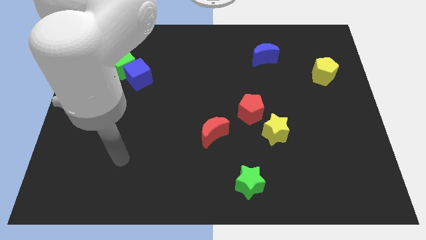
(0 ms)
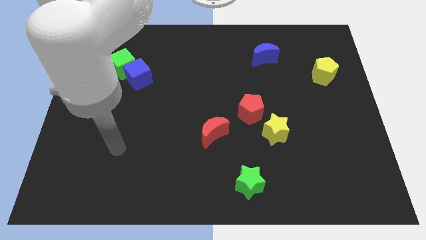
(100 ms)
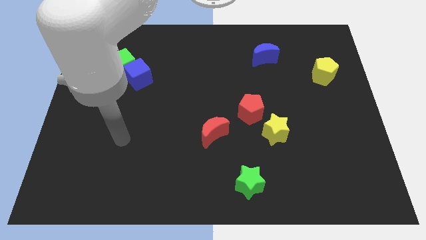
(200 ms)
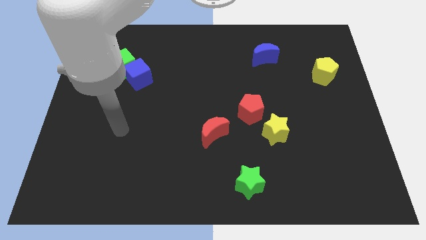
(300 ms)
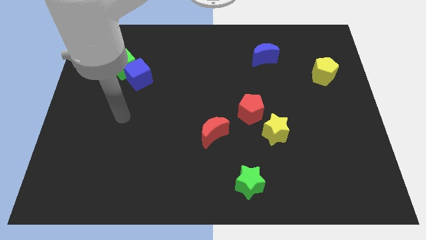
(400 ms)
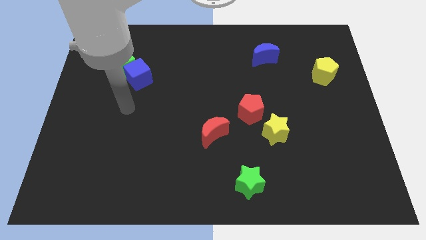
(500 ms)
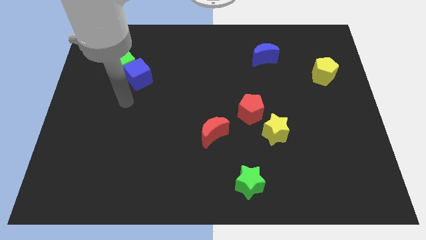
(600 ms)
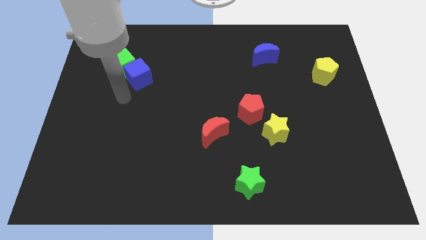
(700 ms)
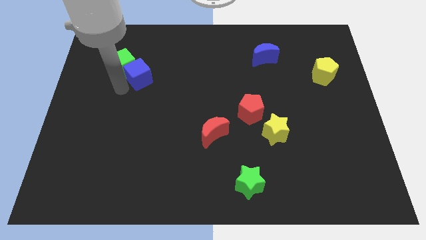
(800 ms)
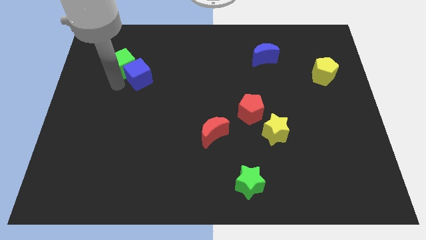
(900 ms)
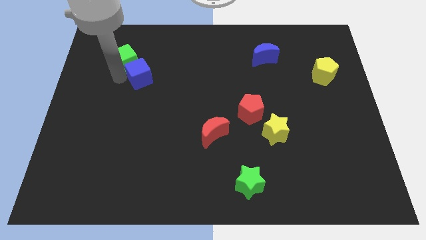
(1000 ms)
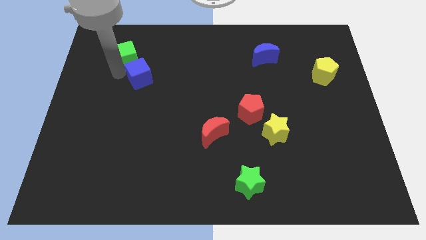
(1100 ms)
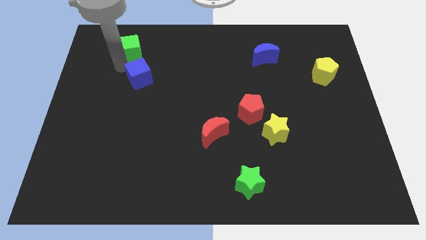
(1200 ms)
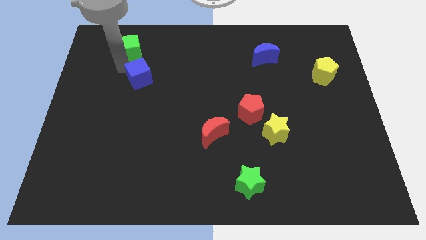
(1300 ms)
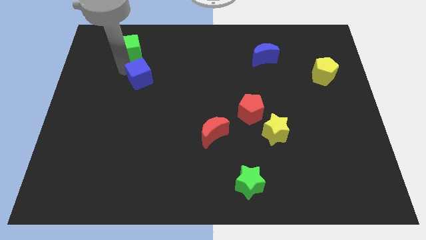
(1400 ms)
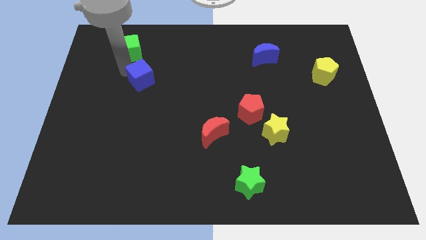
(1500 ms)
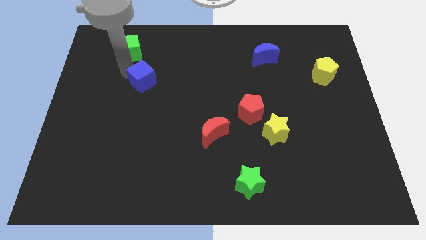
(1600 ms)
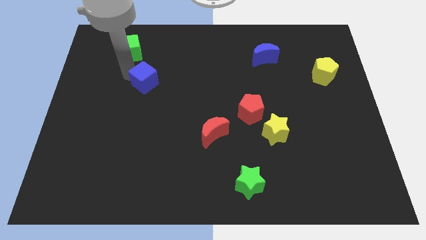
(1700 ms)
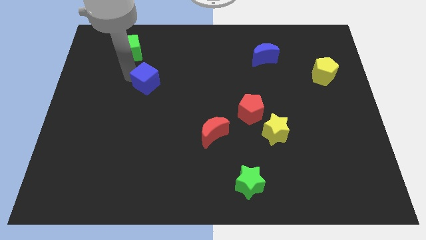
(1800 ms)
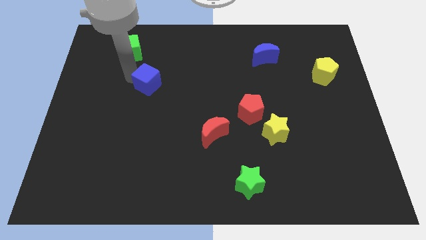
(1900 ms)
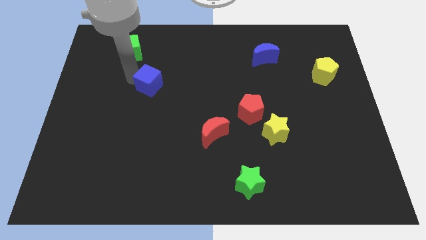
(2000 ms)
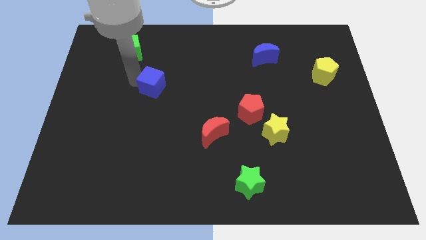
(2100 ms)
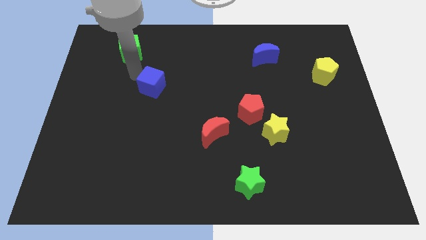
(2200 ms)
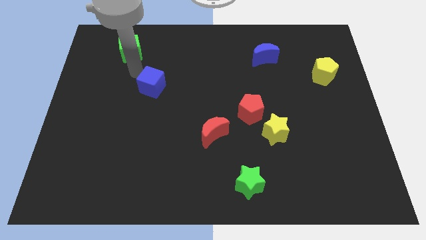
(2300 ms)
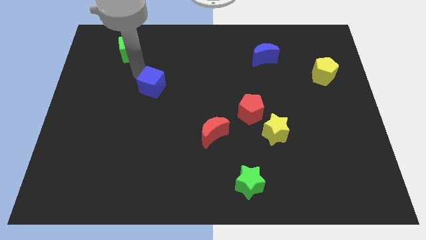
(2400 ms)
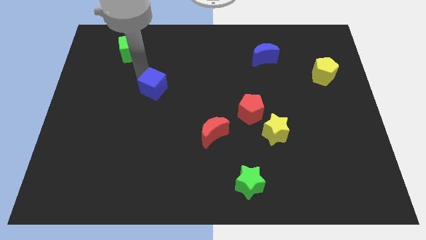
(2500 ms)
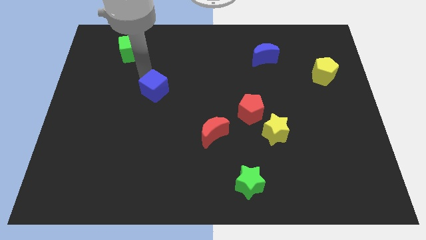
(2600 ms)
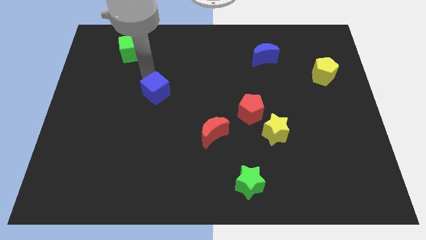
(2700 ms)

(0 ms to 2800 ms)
slightly slide the blue cube downwards and right

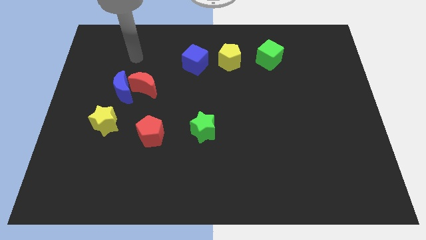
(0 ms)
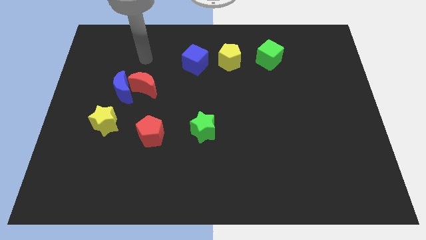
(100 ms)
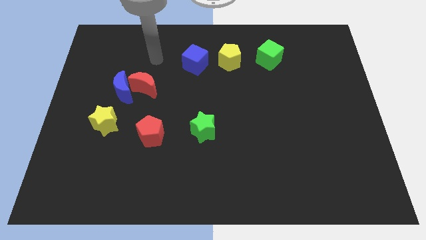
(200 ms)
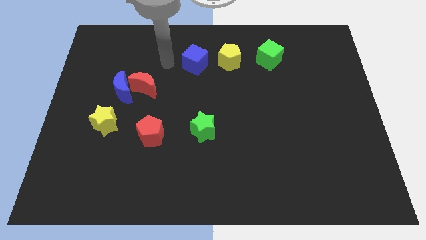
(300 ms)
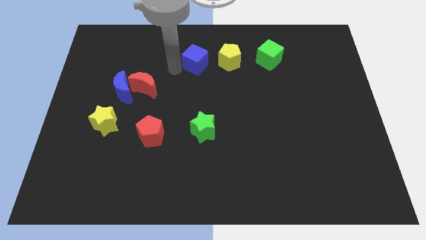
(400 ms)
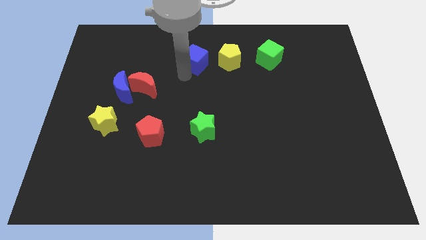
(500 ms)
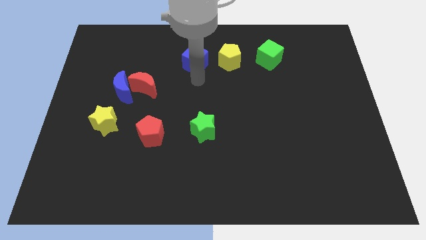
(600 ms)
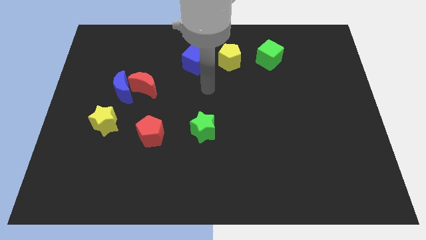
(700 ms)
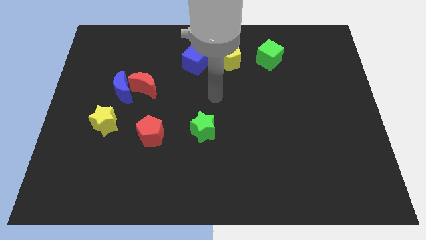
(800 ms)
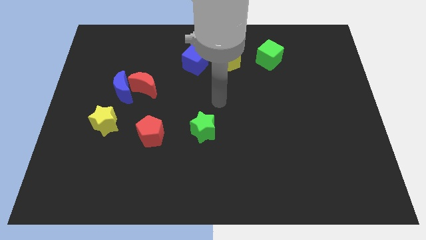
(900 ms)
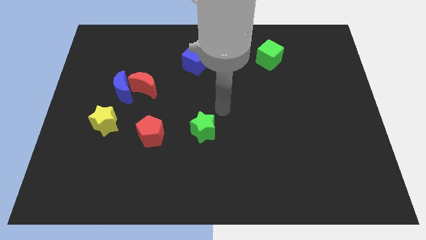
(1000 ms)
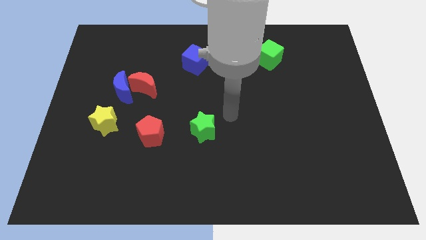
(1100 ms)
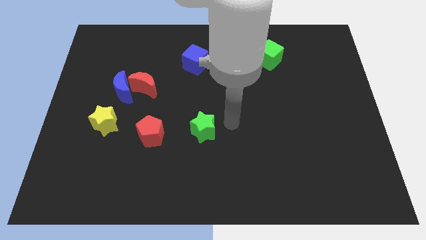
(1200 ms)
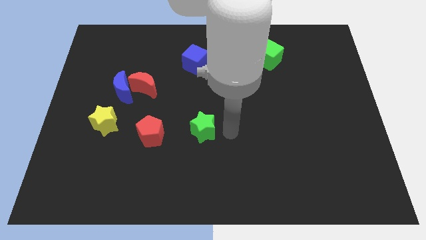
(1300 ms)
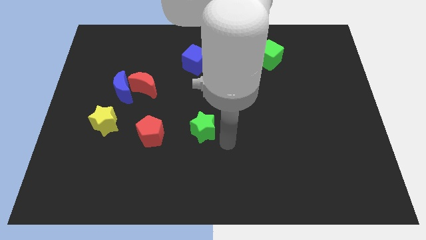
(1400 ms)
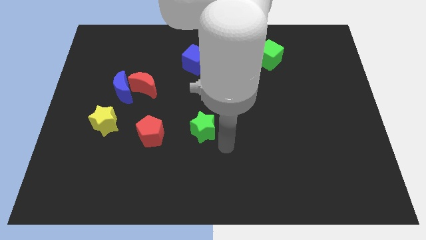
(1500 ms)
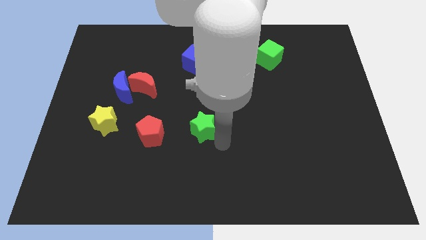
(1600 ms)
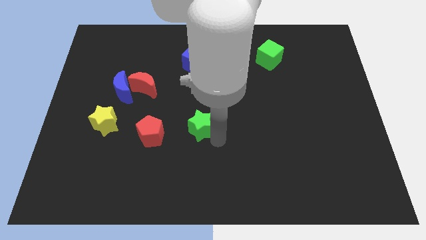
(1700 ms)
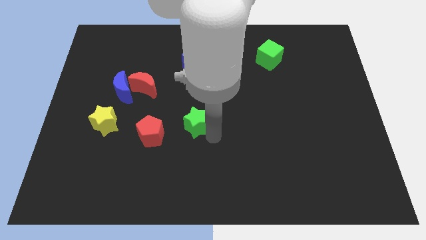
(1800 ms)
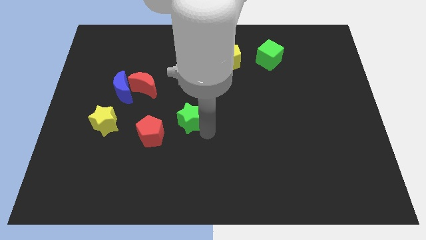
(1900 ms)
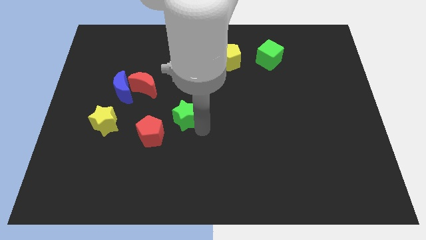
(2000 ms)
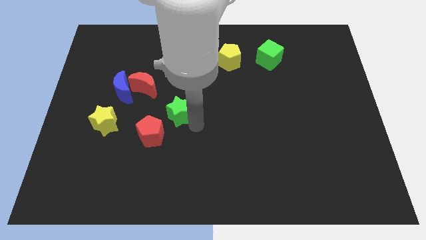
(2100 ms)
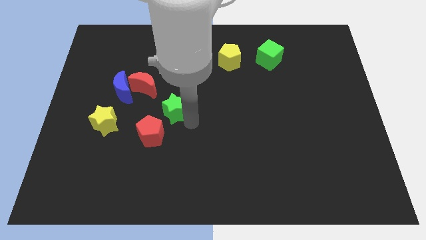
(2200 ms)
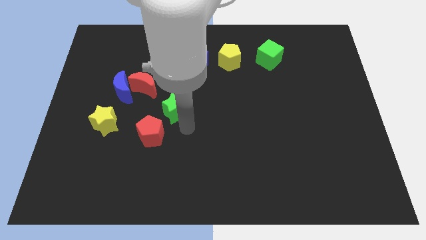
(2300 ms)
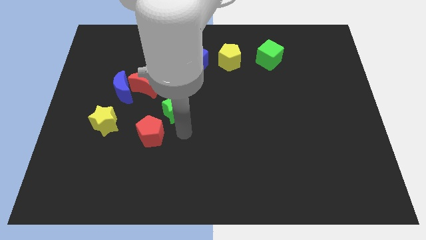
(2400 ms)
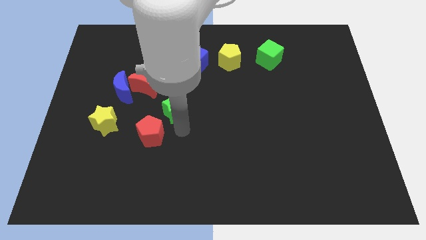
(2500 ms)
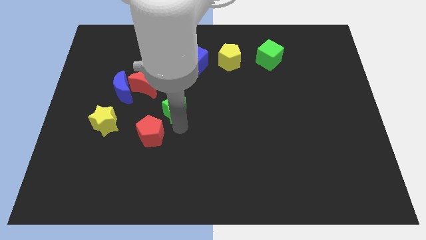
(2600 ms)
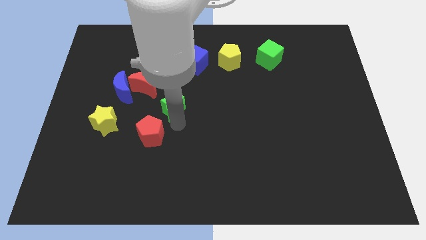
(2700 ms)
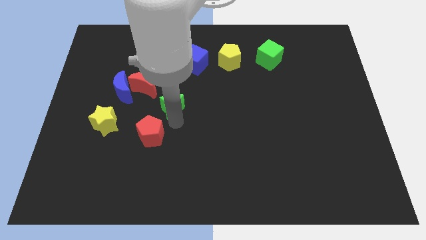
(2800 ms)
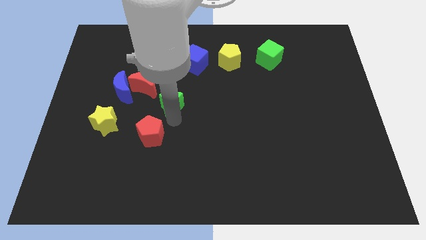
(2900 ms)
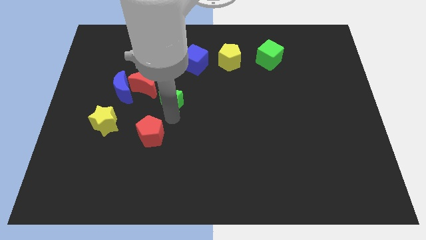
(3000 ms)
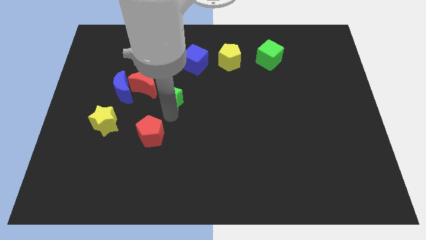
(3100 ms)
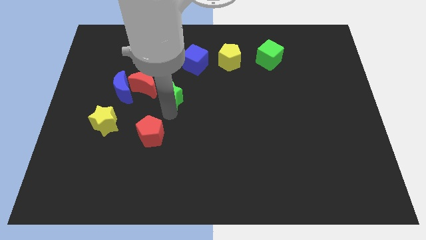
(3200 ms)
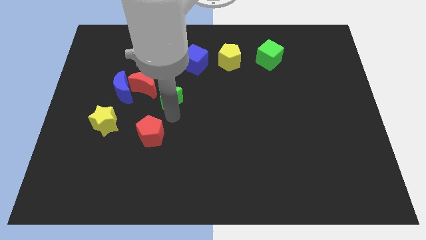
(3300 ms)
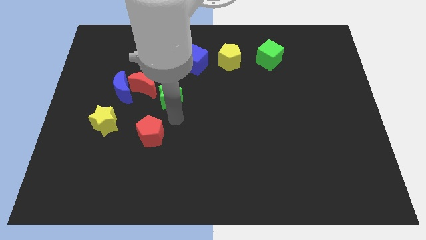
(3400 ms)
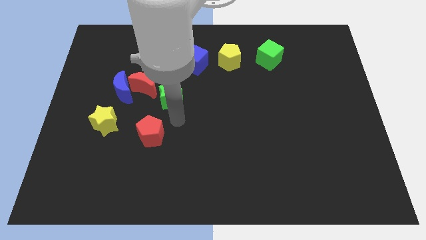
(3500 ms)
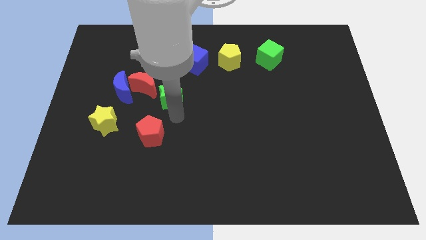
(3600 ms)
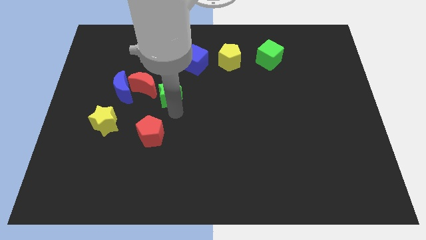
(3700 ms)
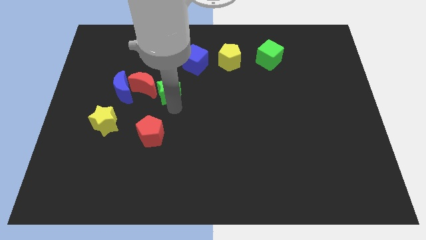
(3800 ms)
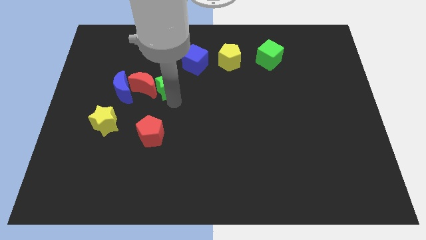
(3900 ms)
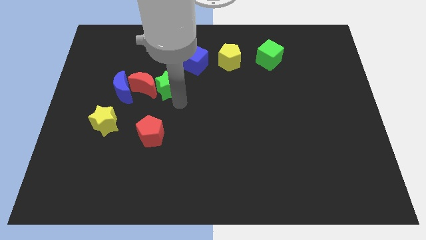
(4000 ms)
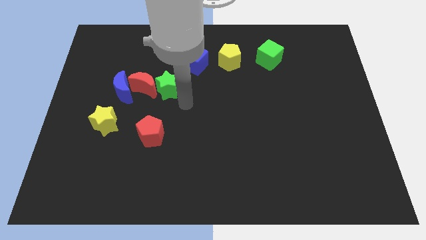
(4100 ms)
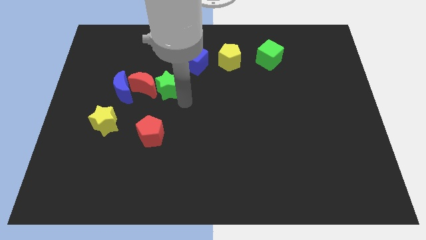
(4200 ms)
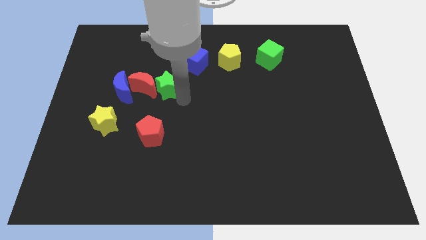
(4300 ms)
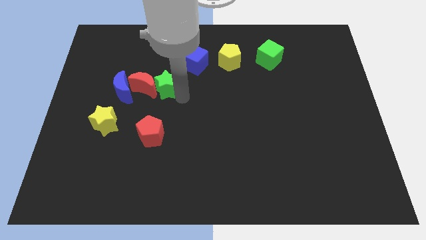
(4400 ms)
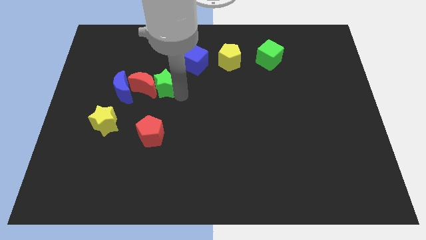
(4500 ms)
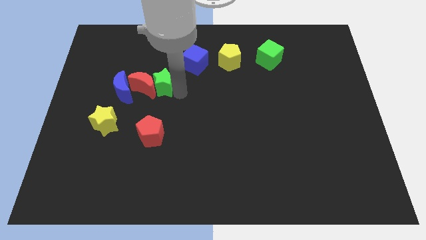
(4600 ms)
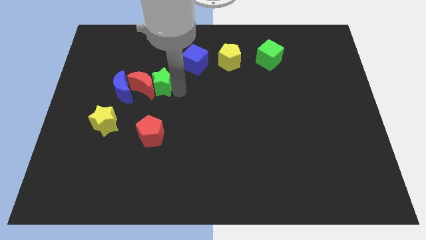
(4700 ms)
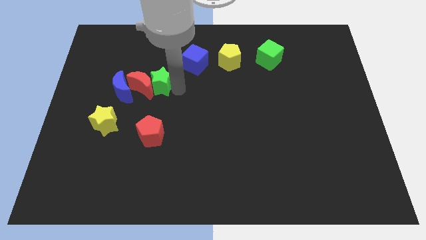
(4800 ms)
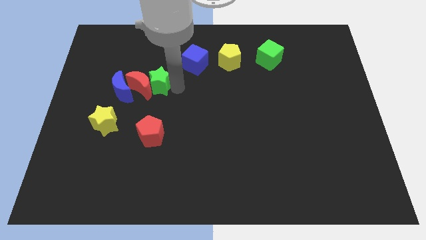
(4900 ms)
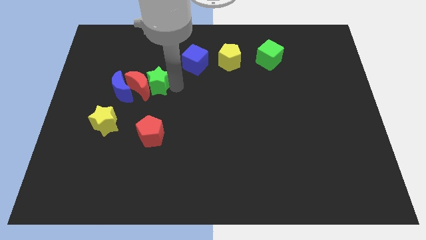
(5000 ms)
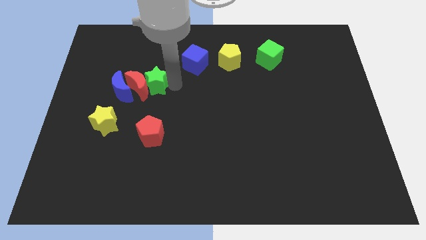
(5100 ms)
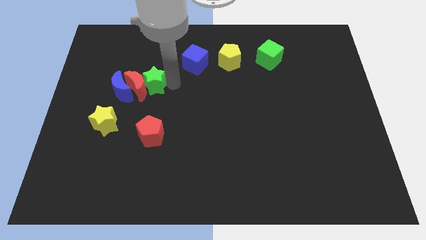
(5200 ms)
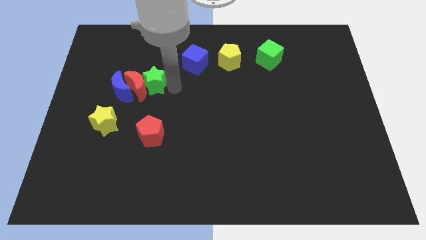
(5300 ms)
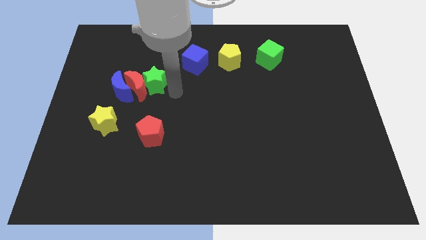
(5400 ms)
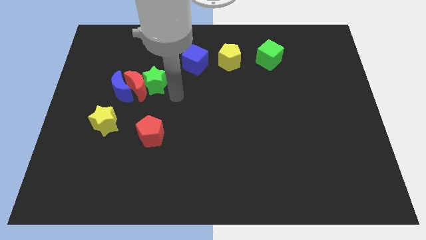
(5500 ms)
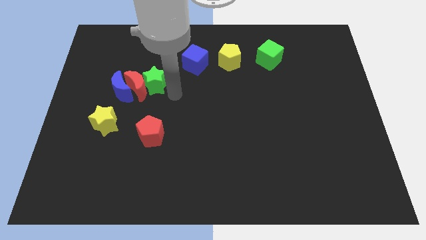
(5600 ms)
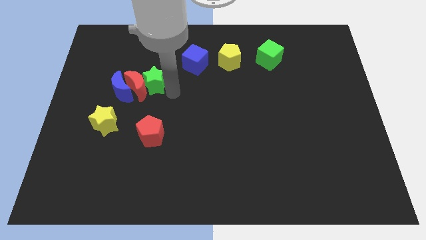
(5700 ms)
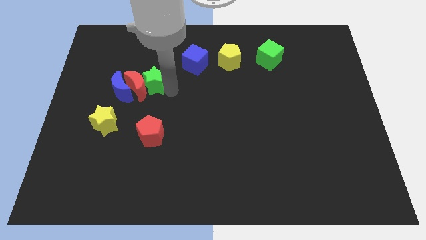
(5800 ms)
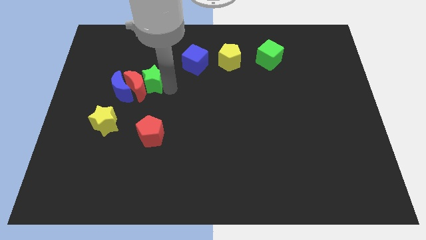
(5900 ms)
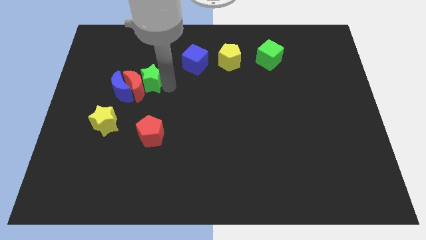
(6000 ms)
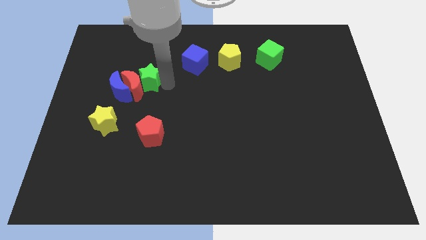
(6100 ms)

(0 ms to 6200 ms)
push the green star up and then left
